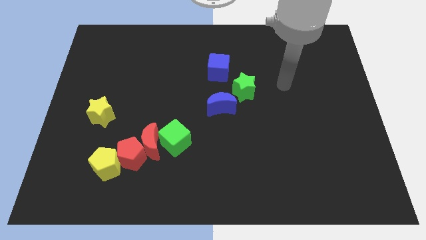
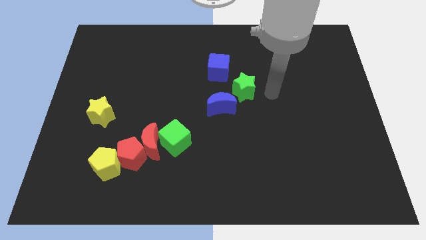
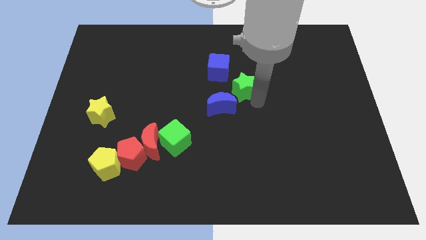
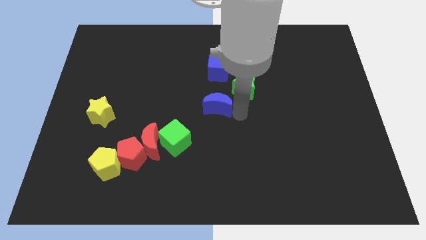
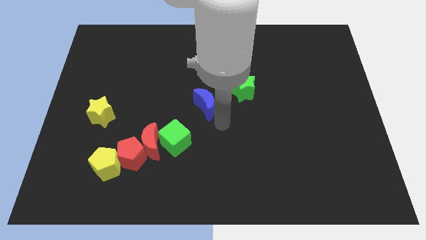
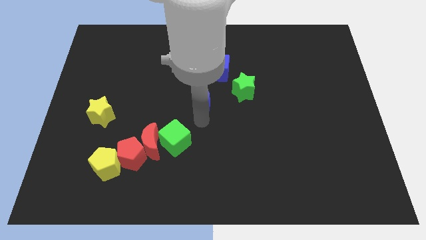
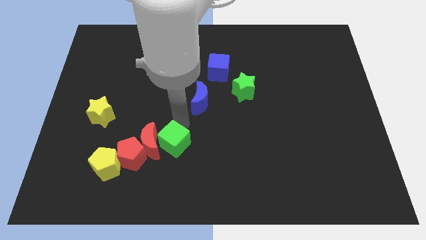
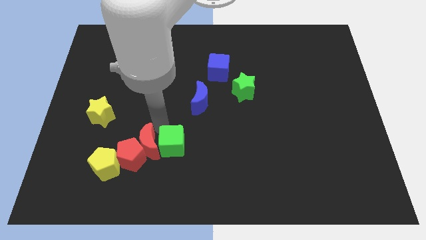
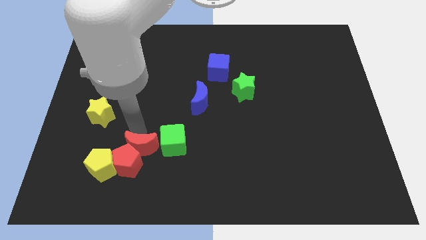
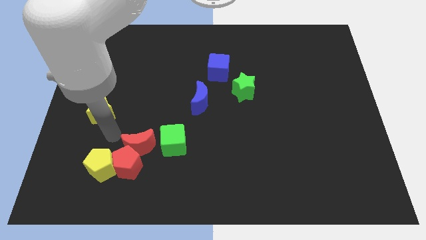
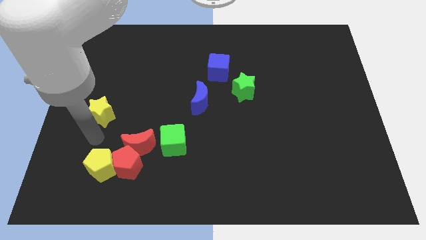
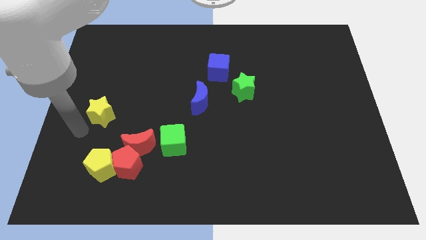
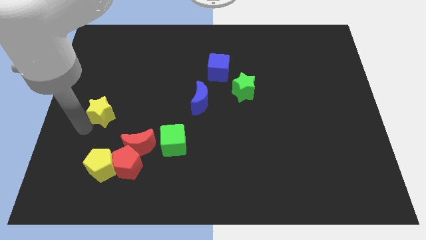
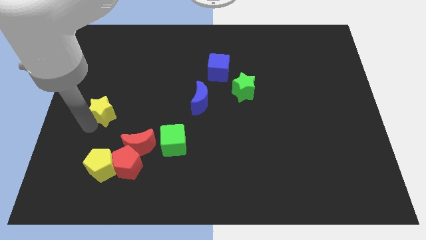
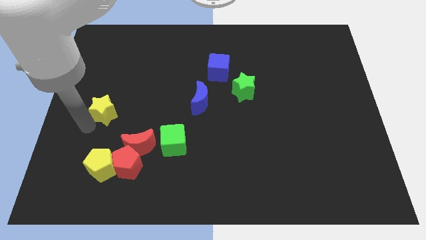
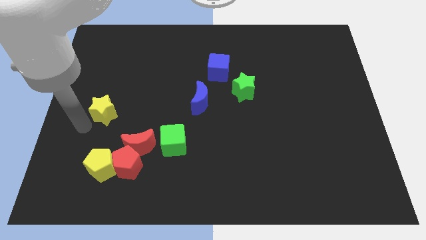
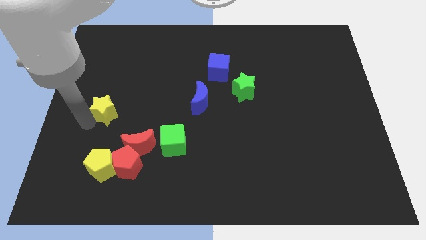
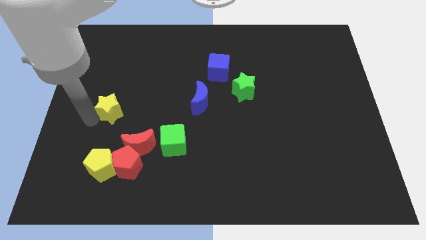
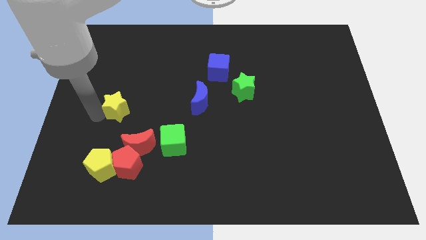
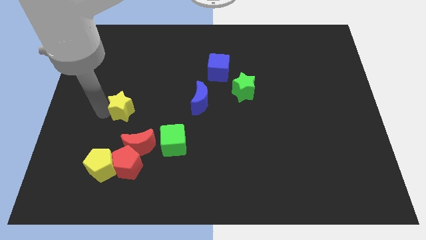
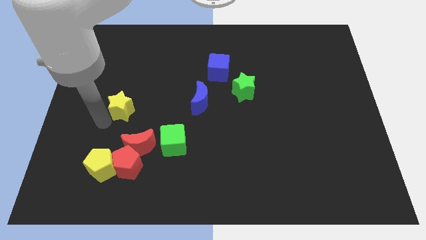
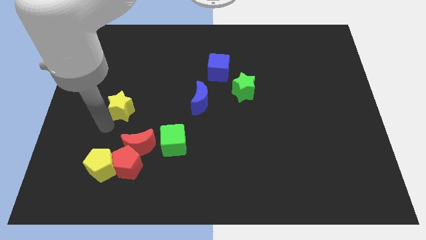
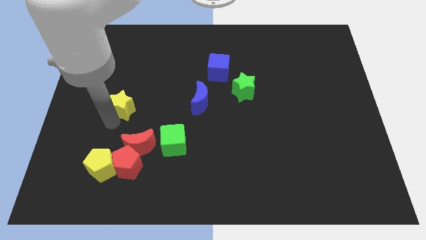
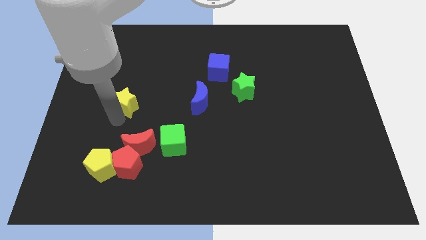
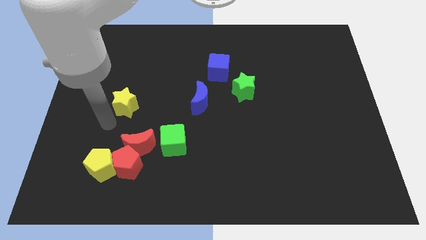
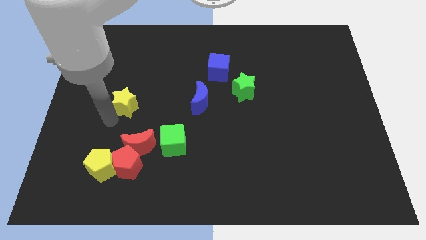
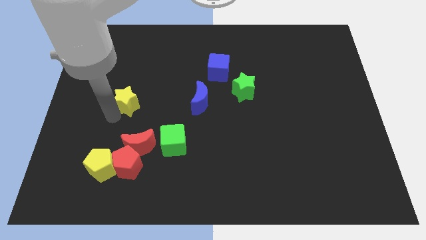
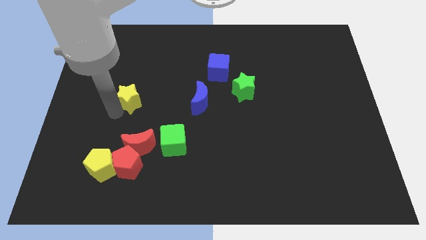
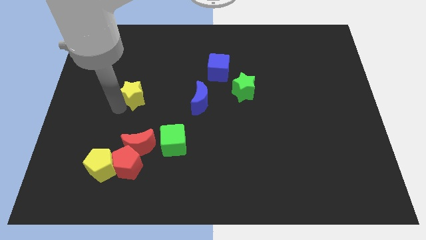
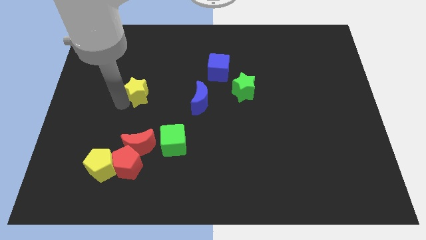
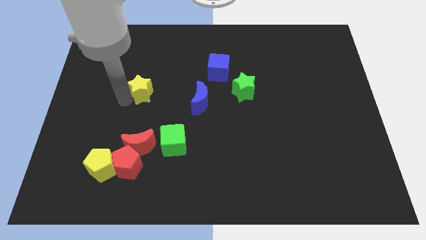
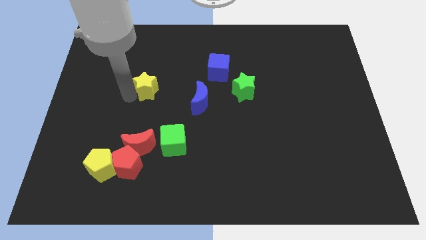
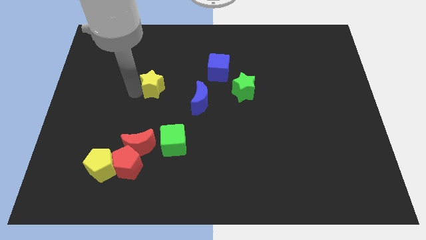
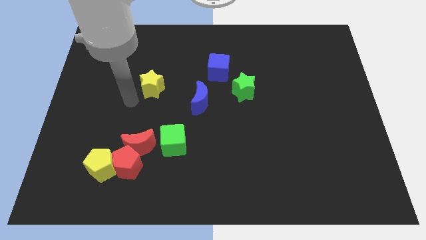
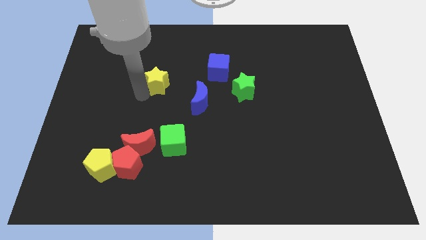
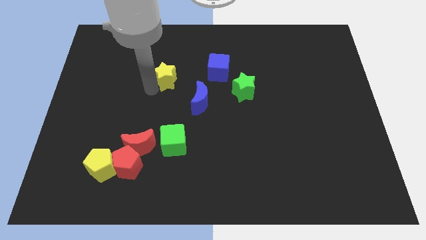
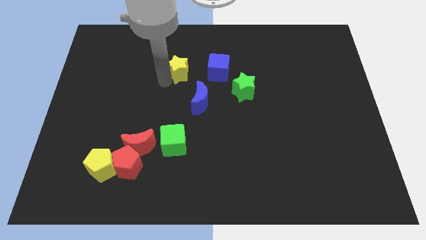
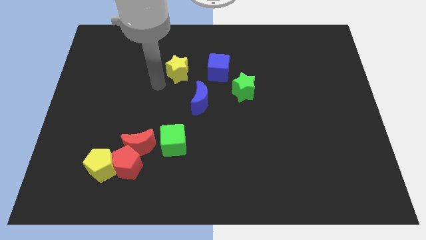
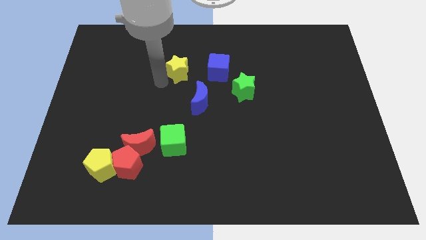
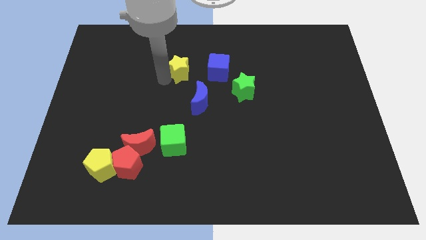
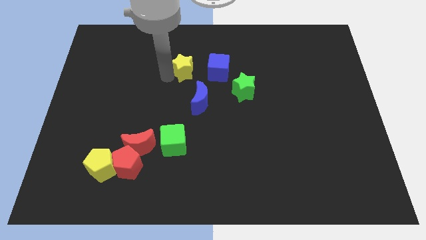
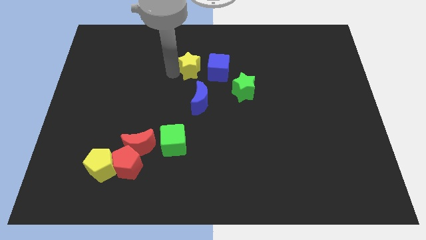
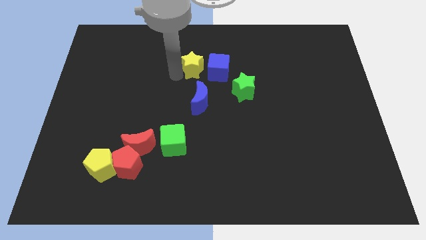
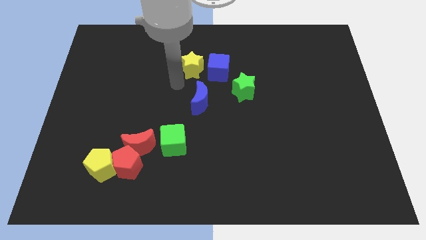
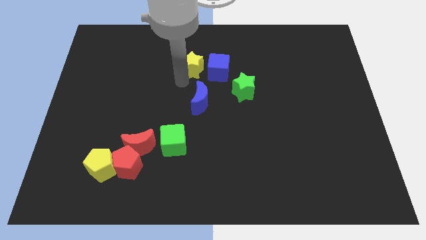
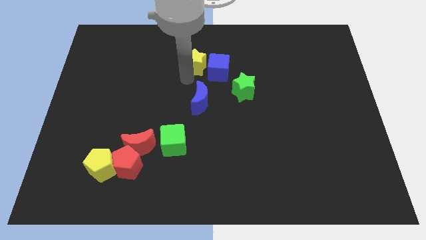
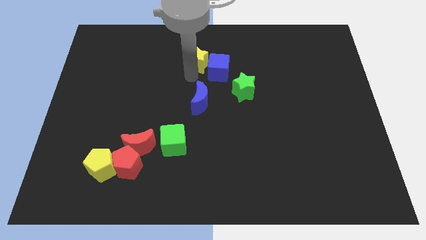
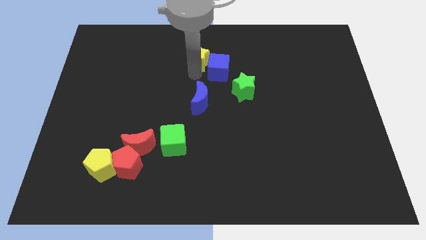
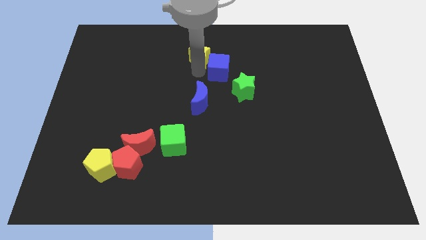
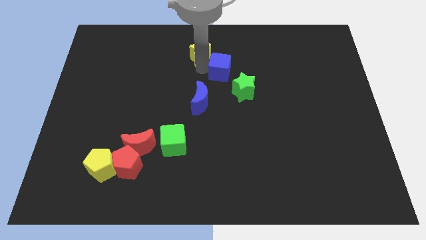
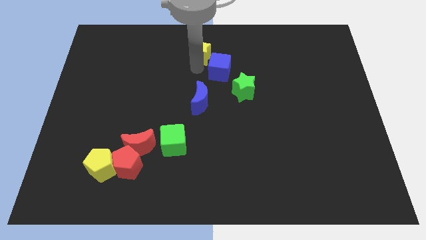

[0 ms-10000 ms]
push the yellow star to the top

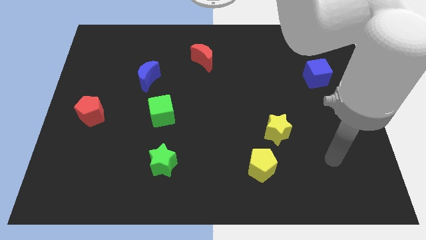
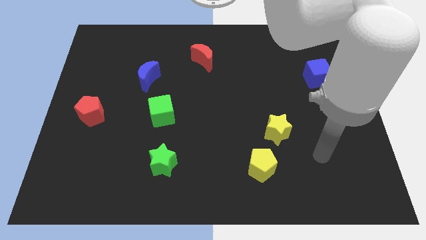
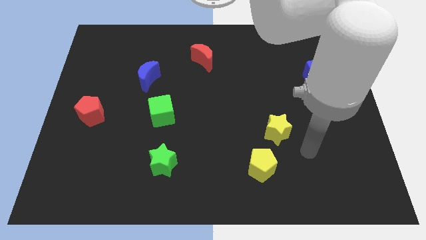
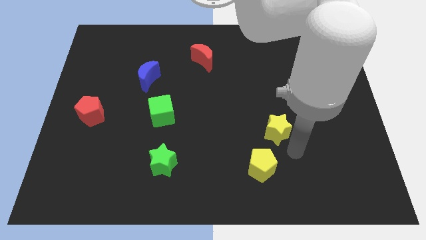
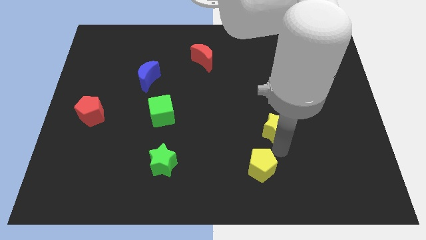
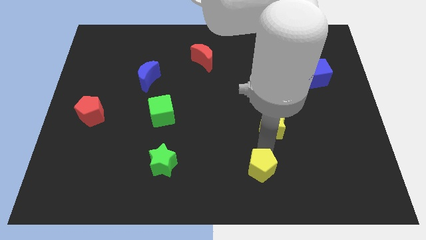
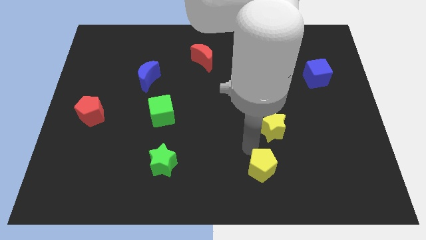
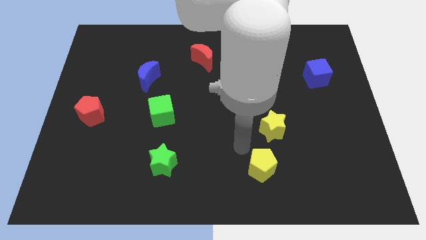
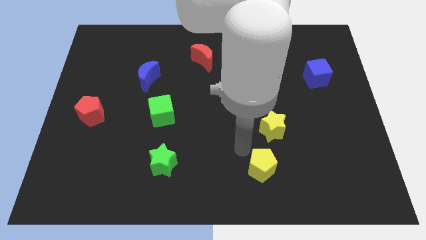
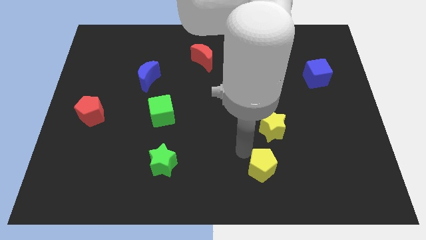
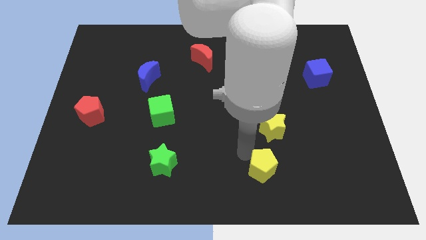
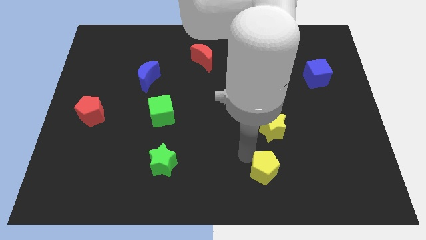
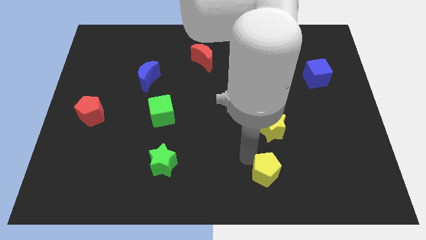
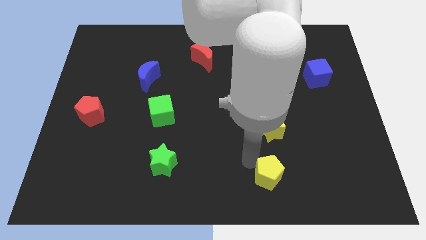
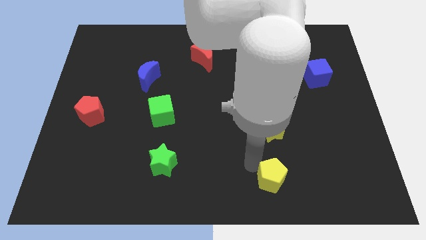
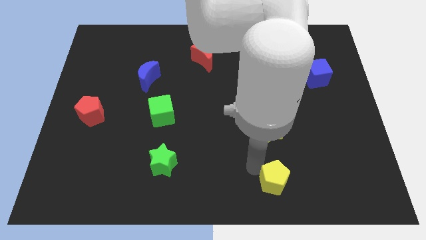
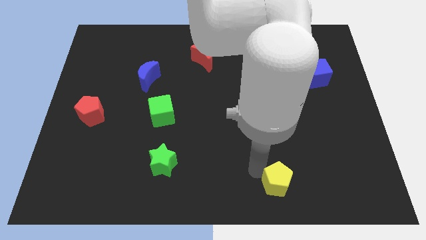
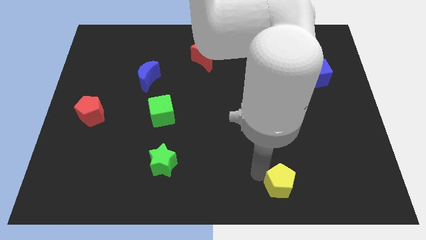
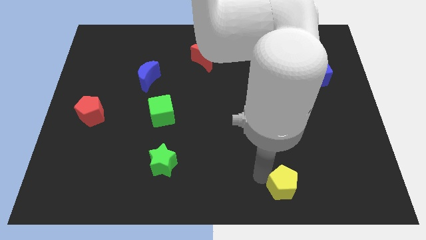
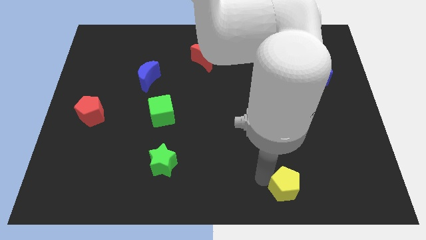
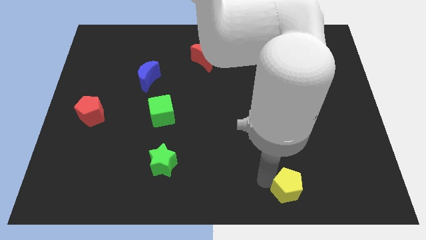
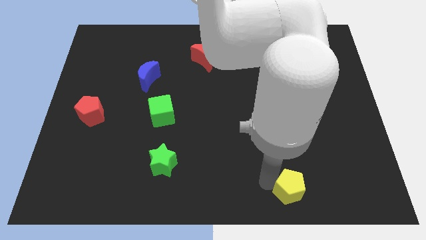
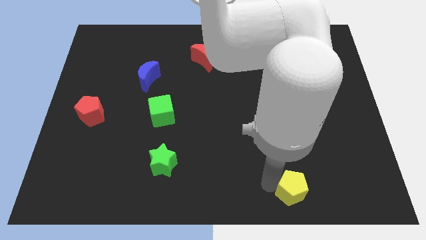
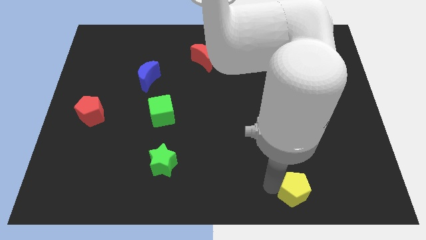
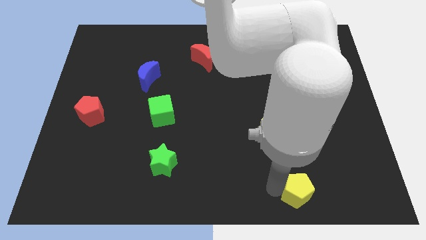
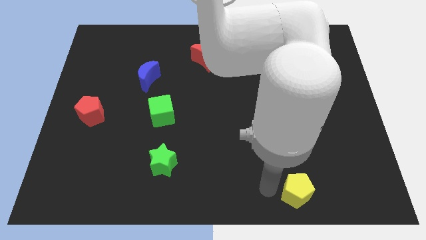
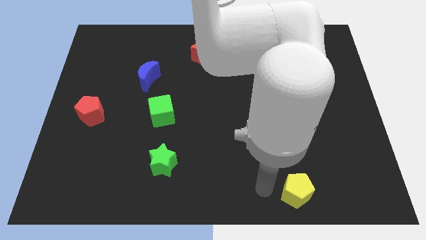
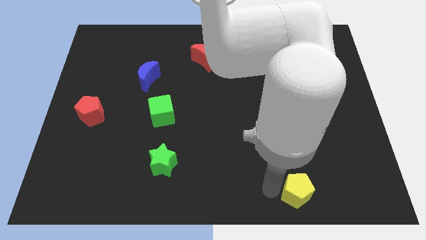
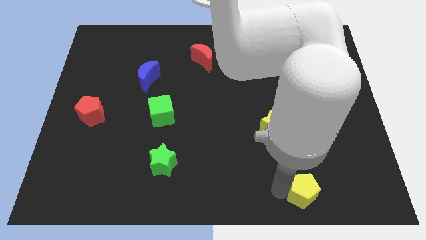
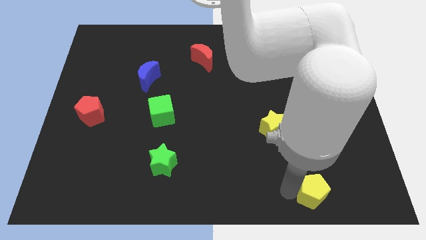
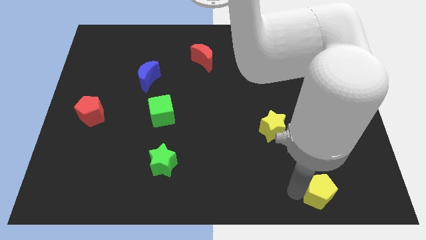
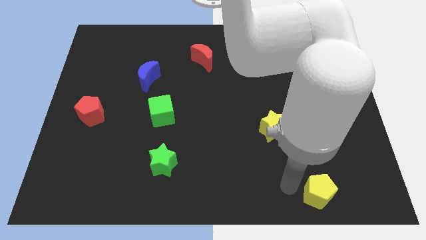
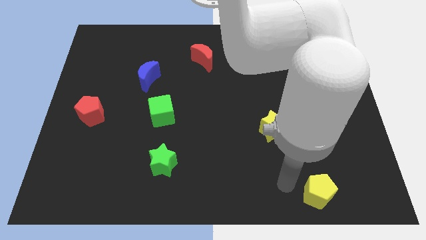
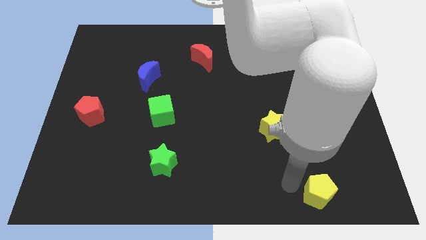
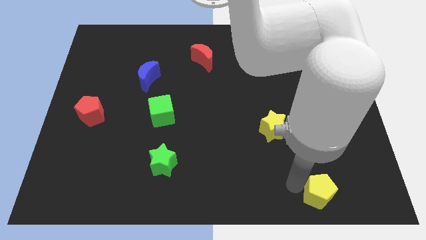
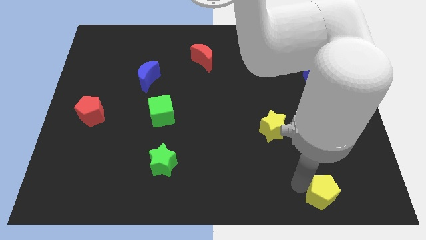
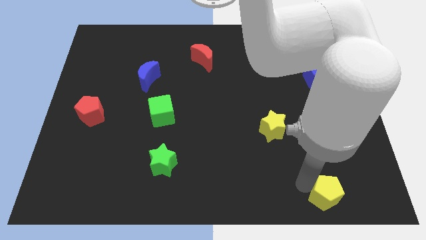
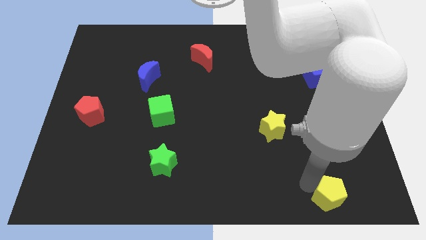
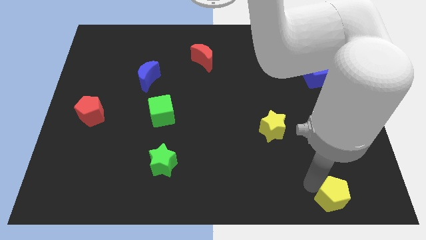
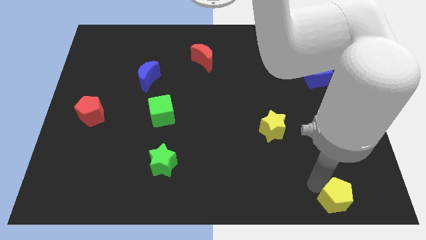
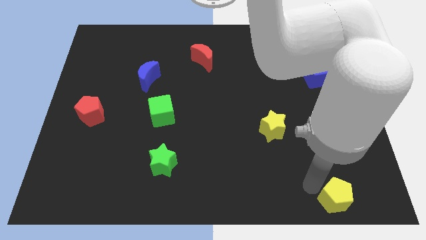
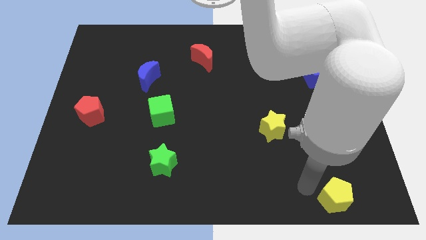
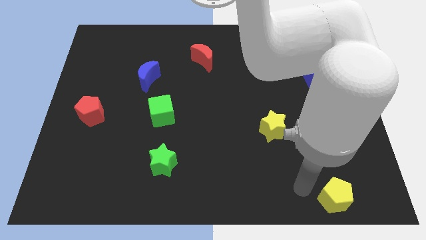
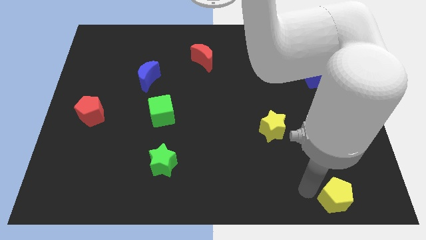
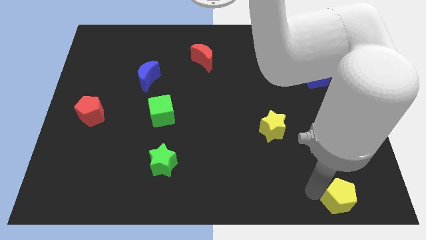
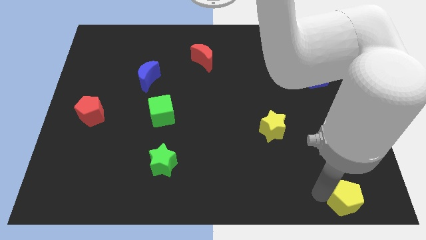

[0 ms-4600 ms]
put the yellow pentagon to the bottom right corner
